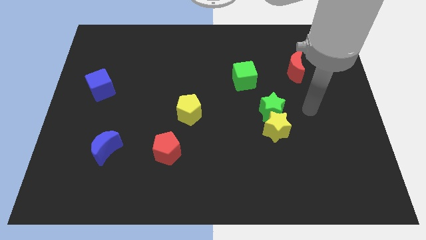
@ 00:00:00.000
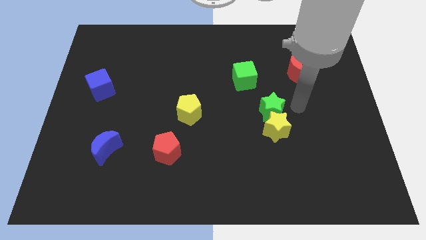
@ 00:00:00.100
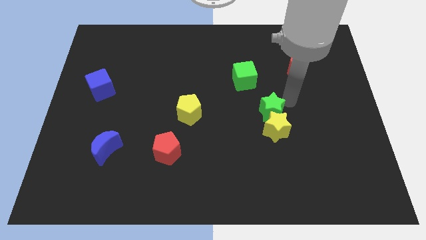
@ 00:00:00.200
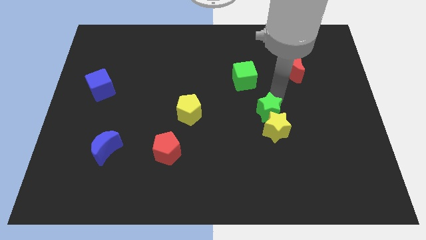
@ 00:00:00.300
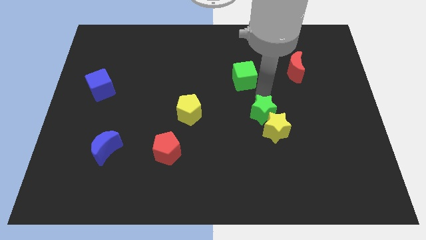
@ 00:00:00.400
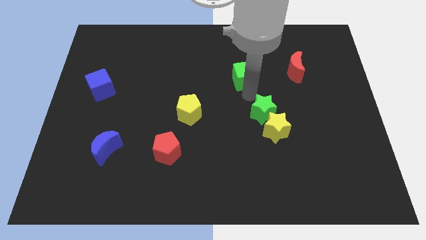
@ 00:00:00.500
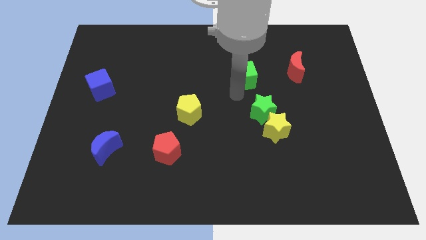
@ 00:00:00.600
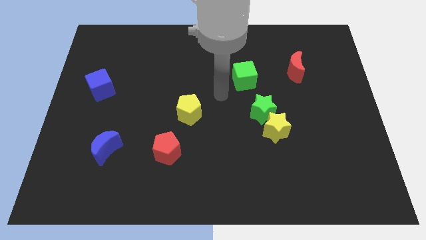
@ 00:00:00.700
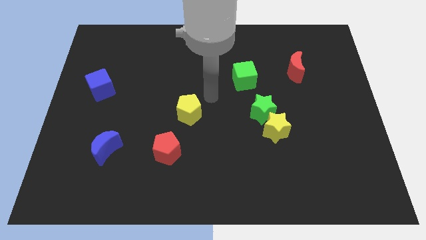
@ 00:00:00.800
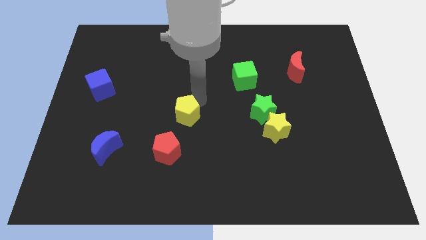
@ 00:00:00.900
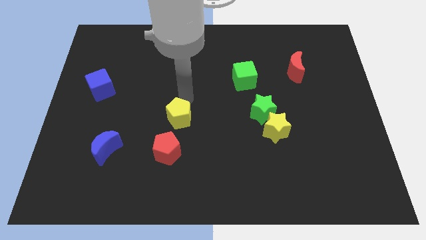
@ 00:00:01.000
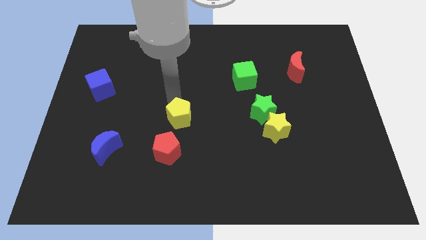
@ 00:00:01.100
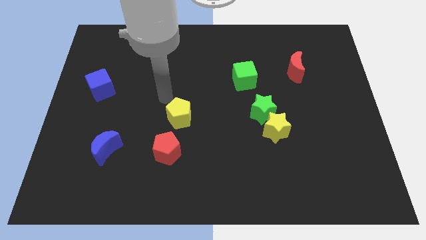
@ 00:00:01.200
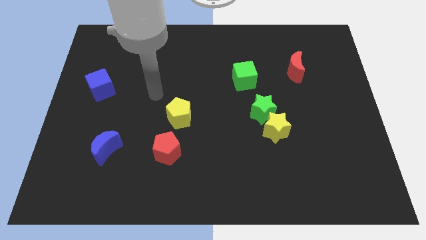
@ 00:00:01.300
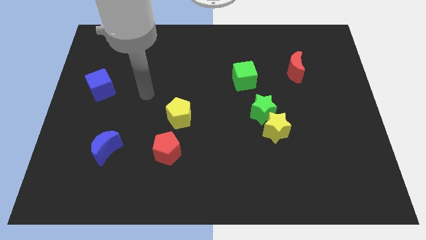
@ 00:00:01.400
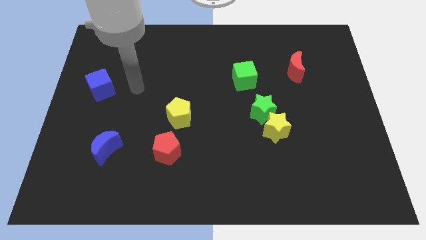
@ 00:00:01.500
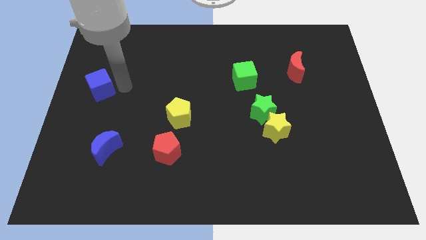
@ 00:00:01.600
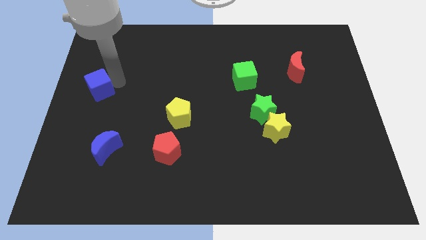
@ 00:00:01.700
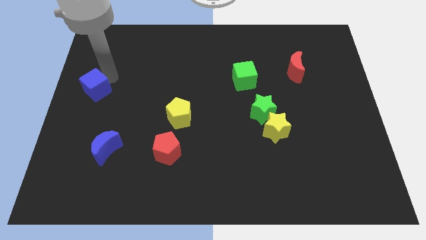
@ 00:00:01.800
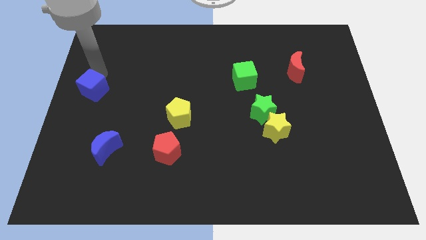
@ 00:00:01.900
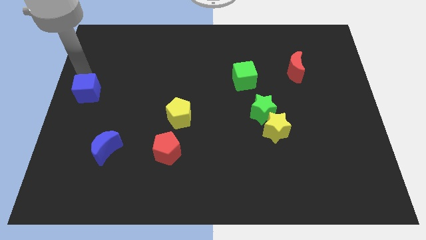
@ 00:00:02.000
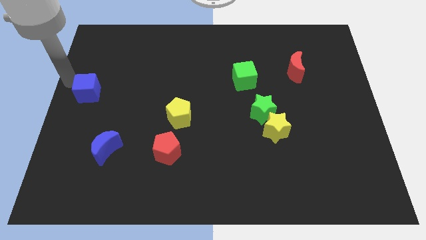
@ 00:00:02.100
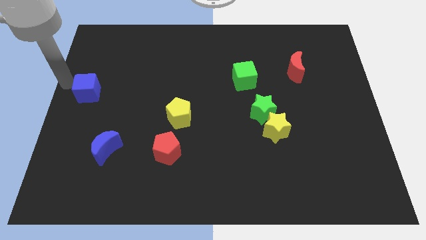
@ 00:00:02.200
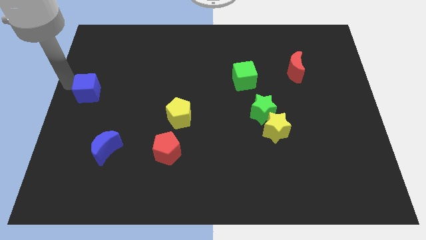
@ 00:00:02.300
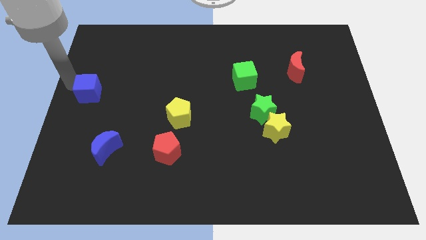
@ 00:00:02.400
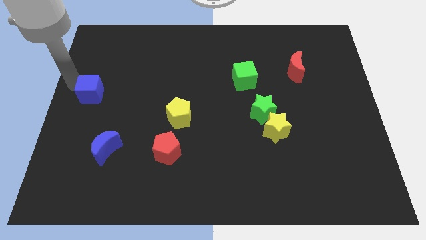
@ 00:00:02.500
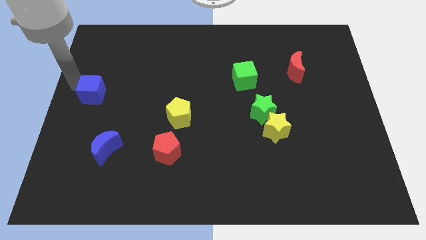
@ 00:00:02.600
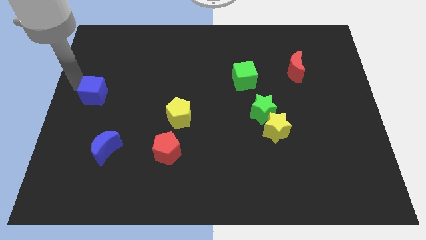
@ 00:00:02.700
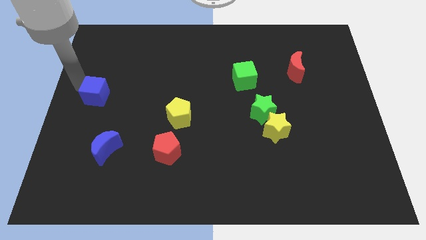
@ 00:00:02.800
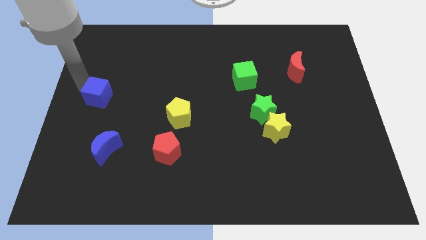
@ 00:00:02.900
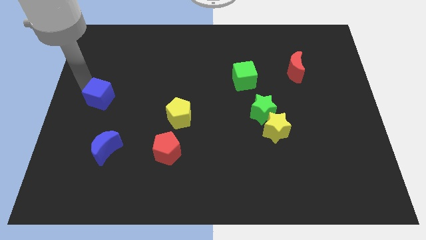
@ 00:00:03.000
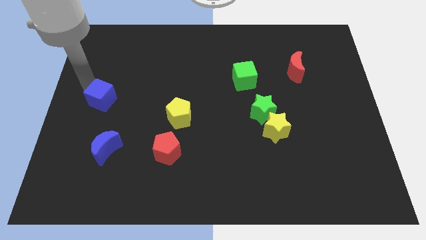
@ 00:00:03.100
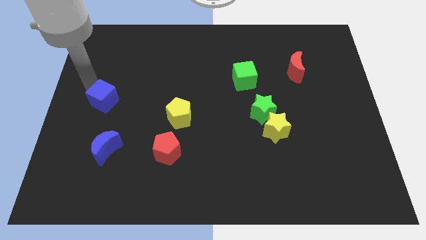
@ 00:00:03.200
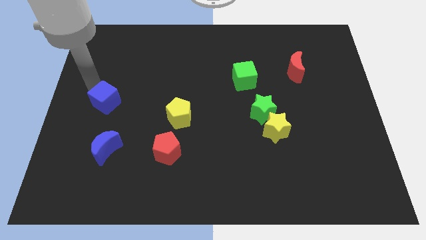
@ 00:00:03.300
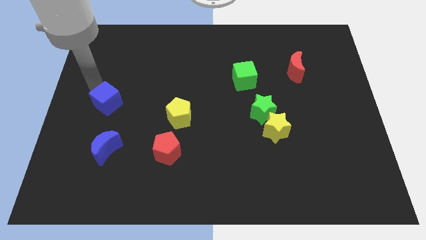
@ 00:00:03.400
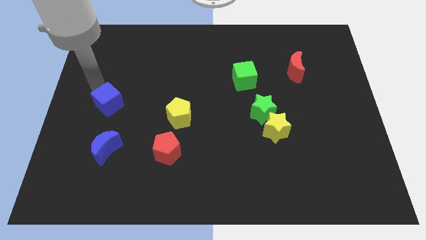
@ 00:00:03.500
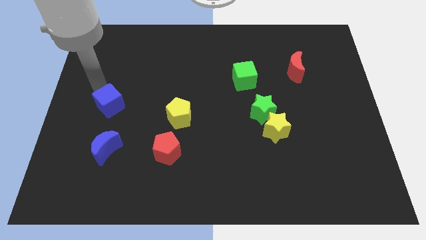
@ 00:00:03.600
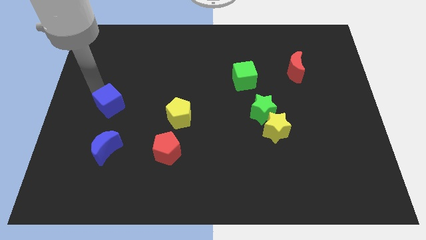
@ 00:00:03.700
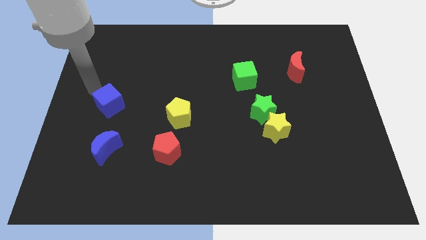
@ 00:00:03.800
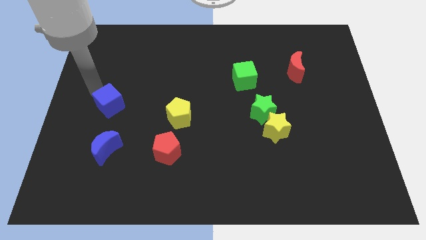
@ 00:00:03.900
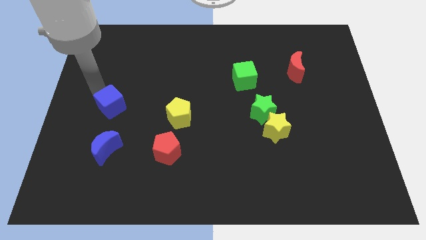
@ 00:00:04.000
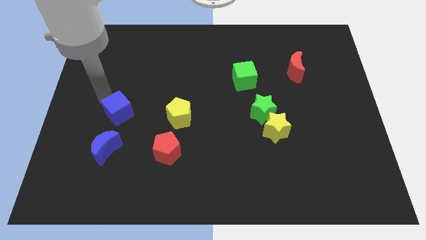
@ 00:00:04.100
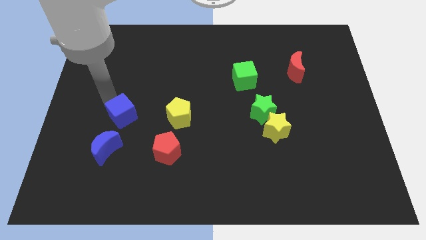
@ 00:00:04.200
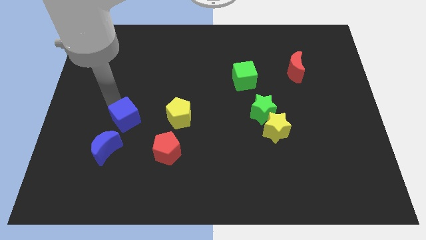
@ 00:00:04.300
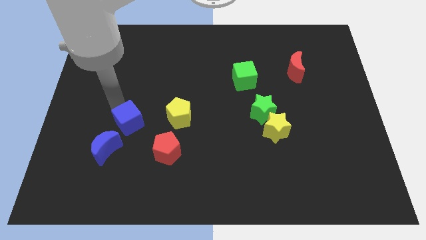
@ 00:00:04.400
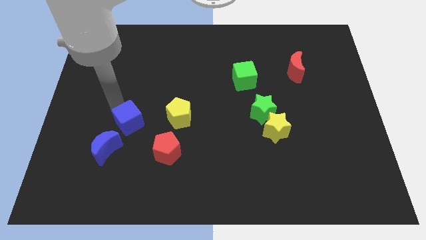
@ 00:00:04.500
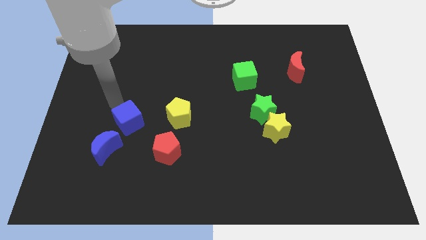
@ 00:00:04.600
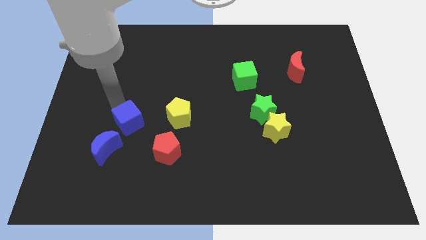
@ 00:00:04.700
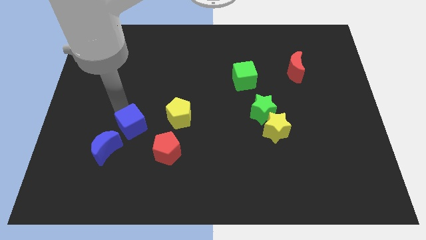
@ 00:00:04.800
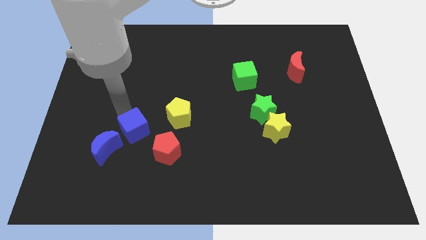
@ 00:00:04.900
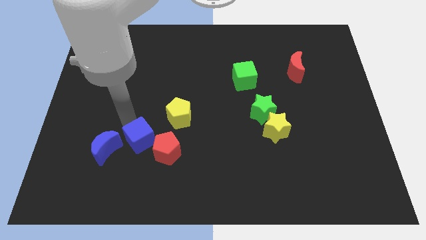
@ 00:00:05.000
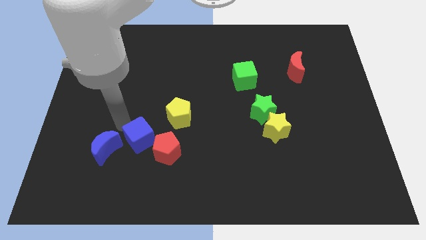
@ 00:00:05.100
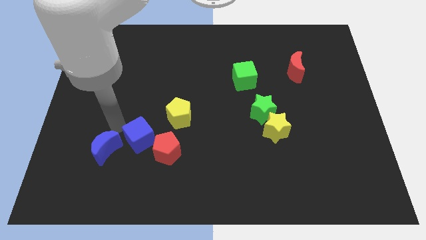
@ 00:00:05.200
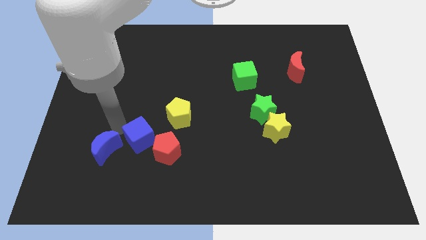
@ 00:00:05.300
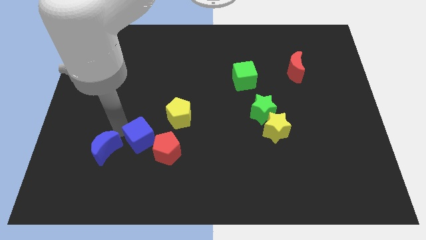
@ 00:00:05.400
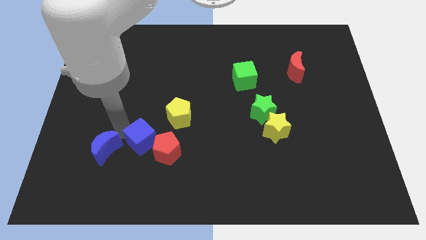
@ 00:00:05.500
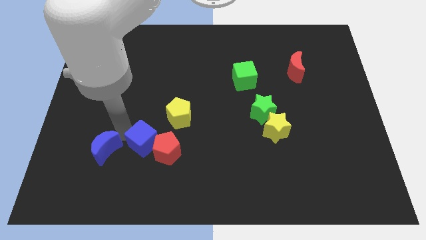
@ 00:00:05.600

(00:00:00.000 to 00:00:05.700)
push the blue cube next to the red pentagon

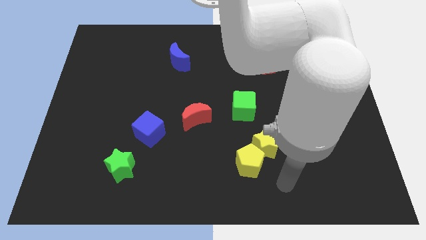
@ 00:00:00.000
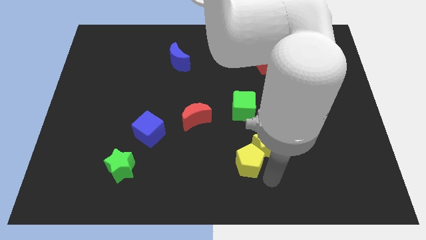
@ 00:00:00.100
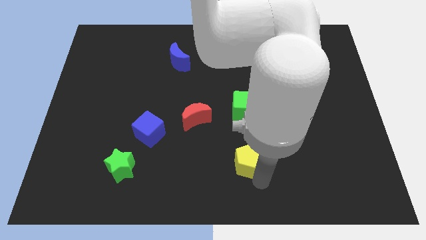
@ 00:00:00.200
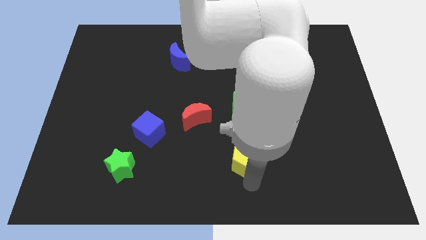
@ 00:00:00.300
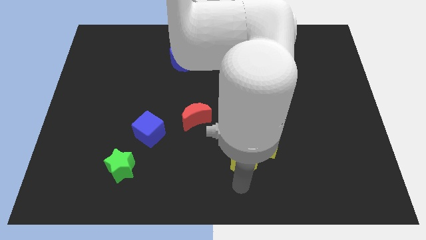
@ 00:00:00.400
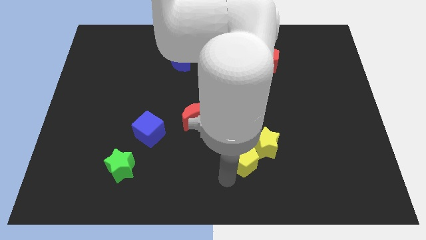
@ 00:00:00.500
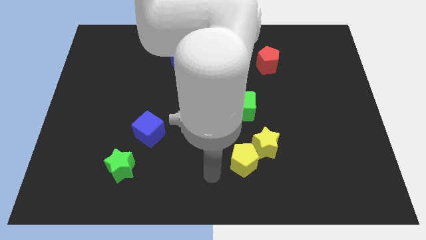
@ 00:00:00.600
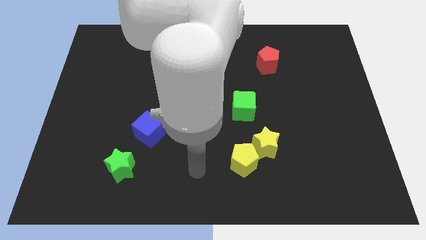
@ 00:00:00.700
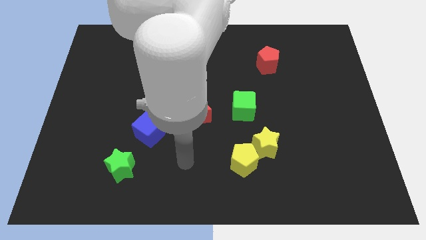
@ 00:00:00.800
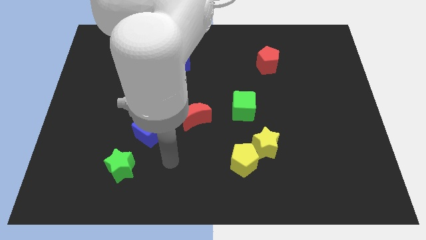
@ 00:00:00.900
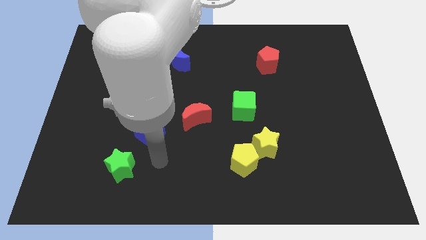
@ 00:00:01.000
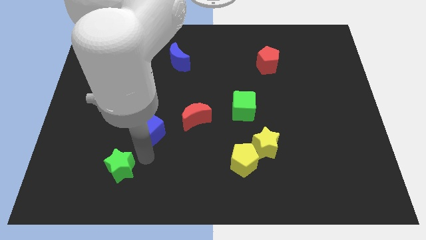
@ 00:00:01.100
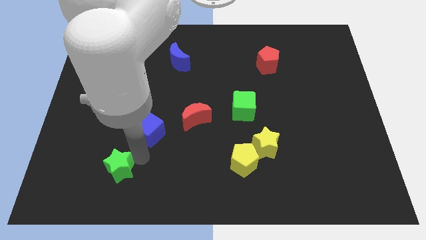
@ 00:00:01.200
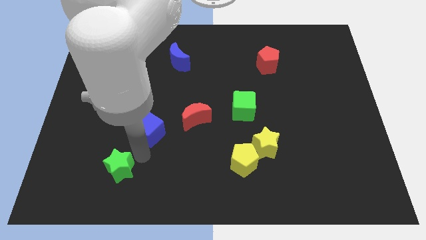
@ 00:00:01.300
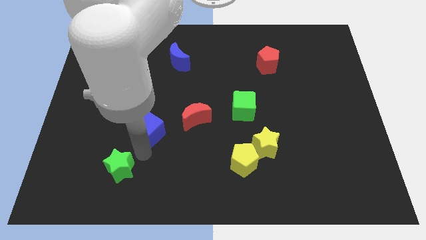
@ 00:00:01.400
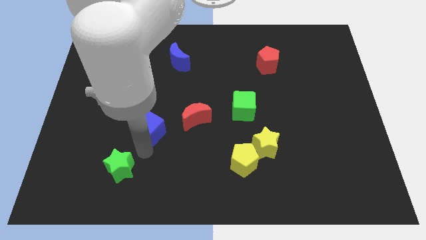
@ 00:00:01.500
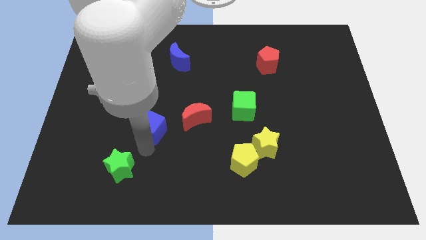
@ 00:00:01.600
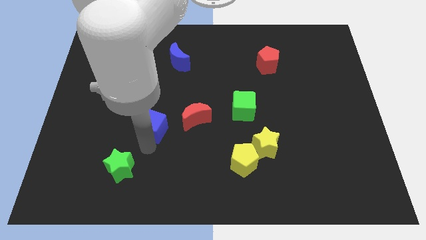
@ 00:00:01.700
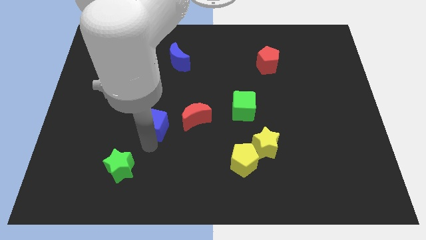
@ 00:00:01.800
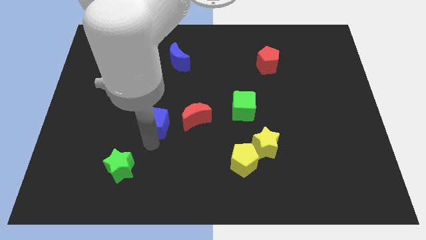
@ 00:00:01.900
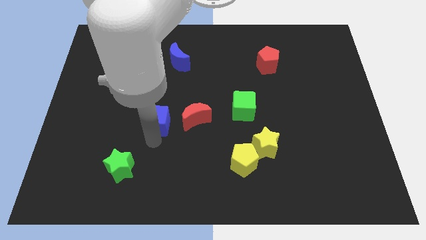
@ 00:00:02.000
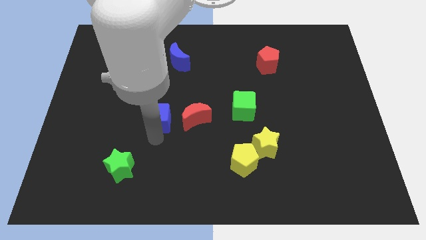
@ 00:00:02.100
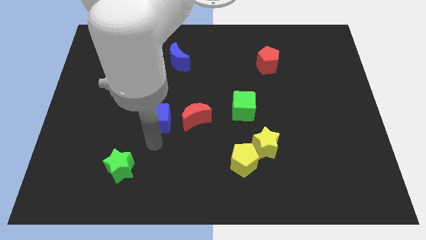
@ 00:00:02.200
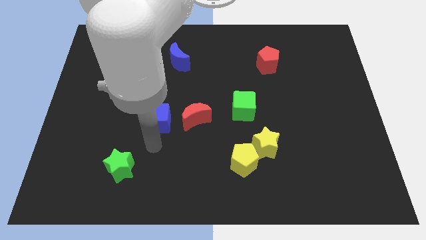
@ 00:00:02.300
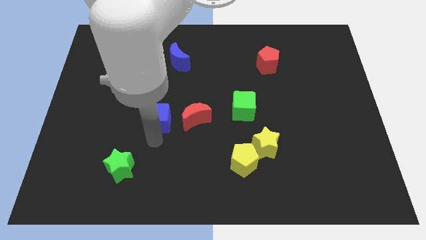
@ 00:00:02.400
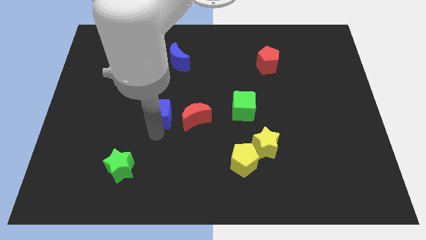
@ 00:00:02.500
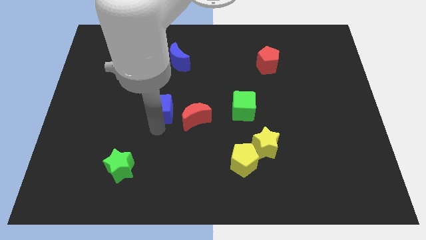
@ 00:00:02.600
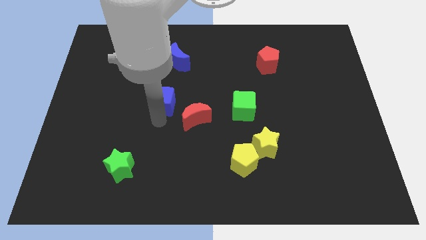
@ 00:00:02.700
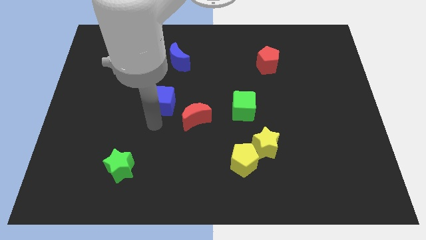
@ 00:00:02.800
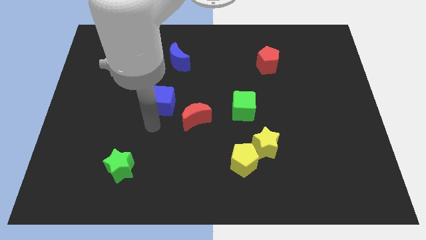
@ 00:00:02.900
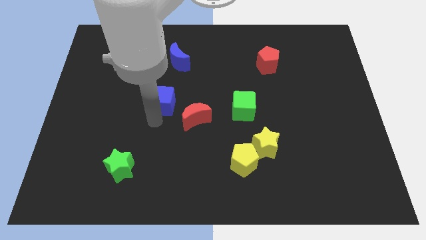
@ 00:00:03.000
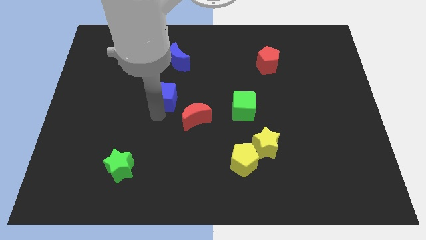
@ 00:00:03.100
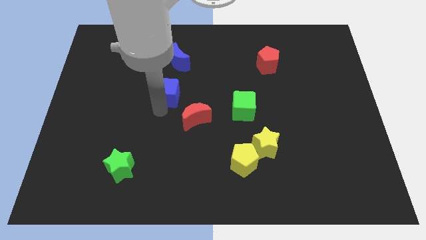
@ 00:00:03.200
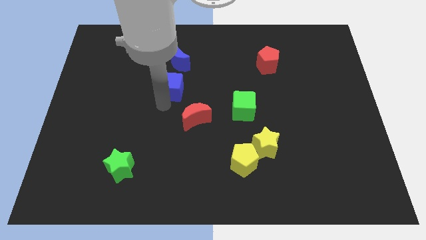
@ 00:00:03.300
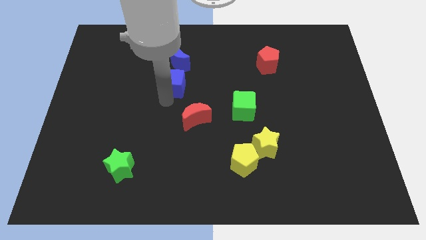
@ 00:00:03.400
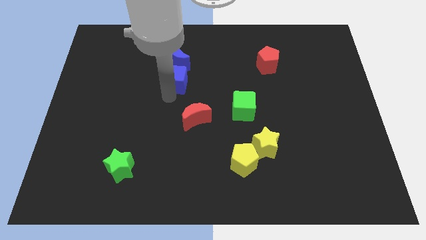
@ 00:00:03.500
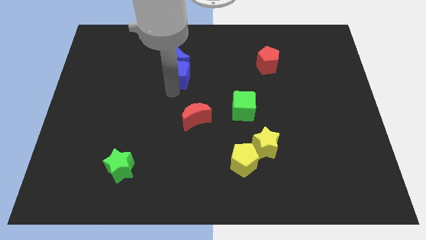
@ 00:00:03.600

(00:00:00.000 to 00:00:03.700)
move the blue cube close to the blue moon
